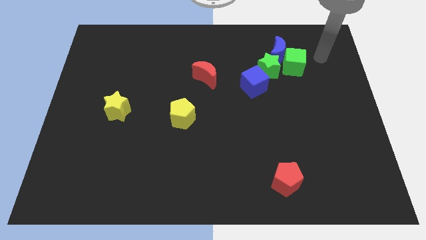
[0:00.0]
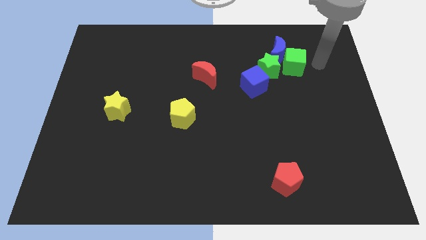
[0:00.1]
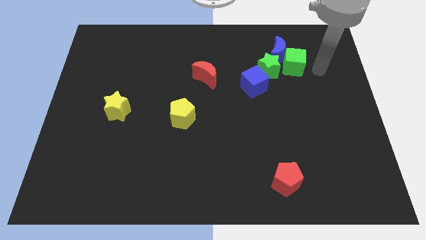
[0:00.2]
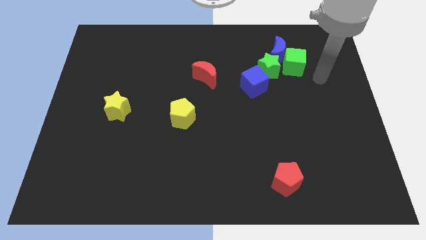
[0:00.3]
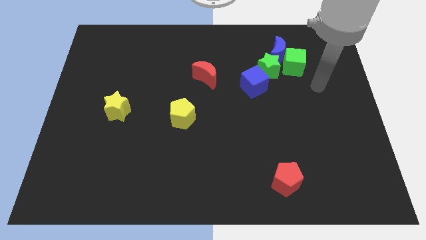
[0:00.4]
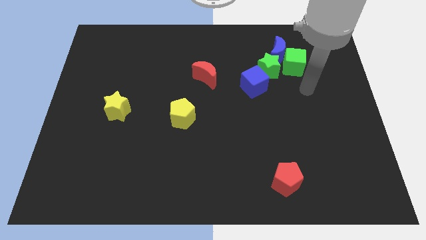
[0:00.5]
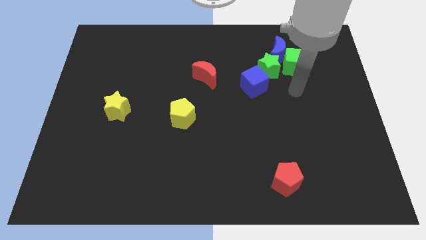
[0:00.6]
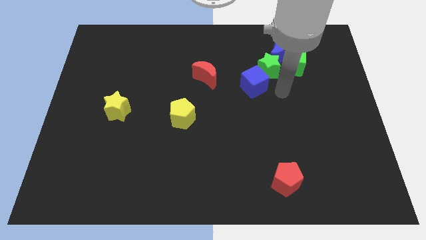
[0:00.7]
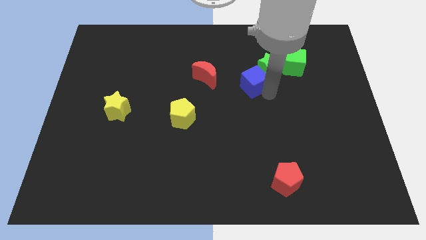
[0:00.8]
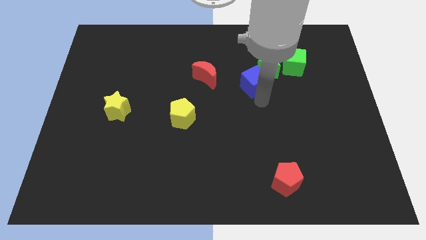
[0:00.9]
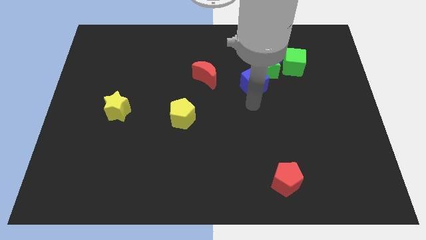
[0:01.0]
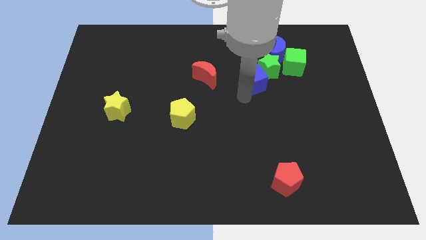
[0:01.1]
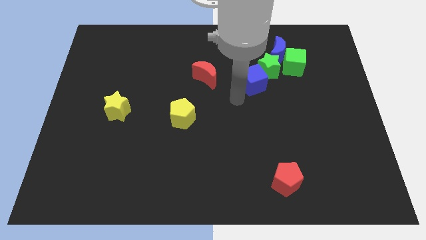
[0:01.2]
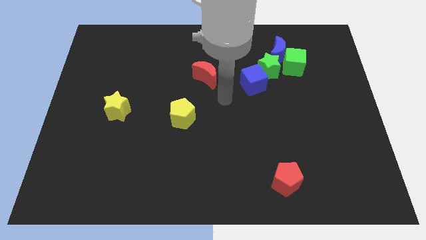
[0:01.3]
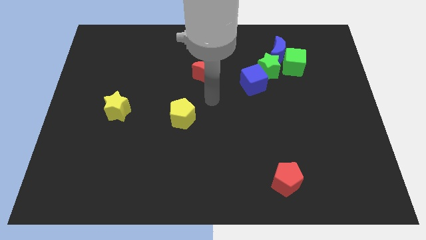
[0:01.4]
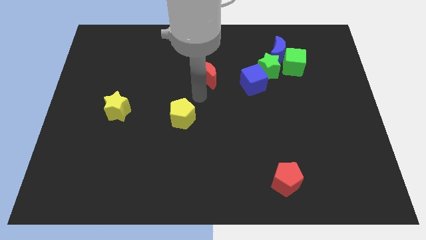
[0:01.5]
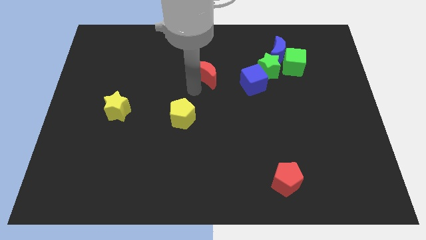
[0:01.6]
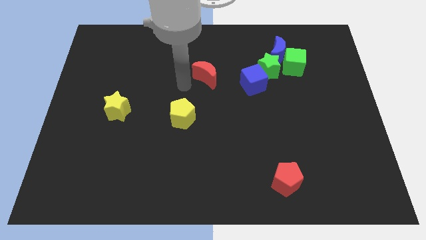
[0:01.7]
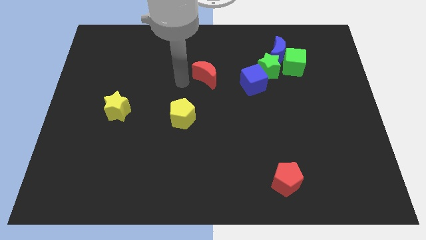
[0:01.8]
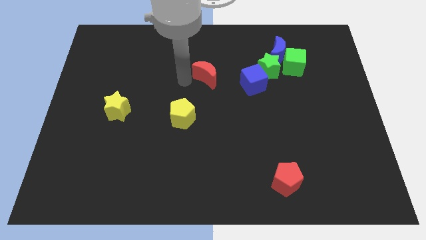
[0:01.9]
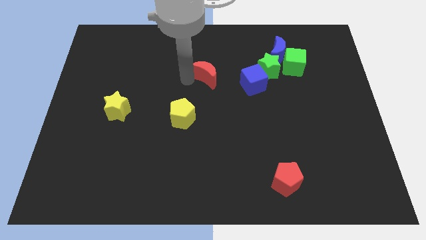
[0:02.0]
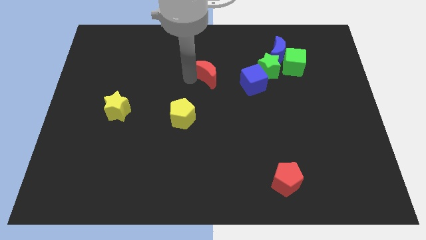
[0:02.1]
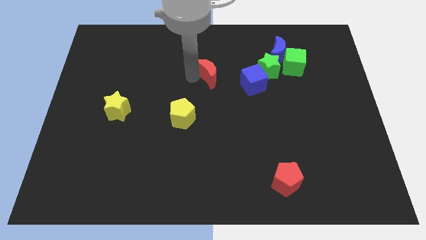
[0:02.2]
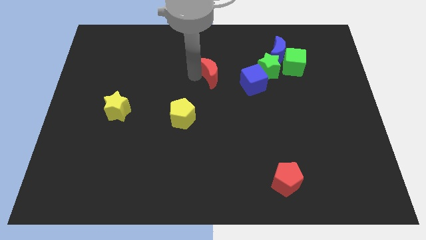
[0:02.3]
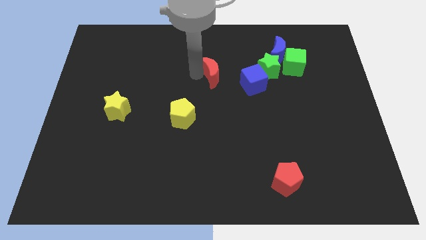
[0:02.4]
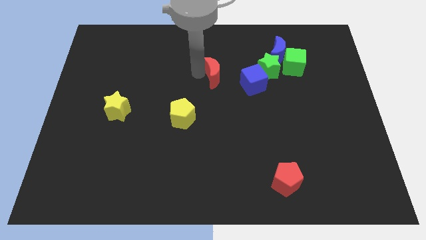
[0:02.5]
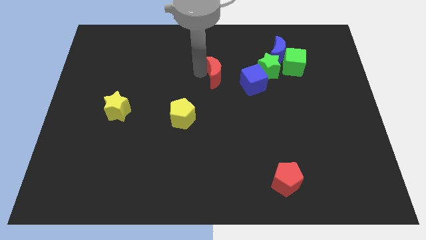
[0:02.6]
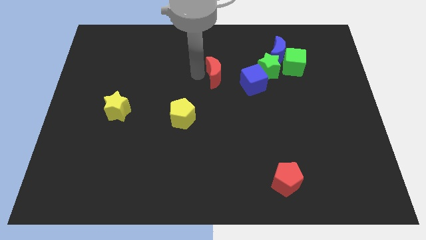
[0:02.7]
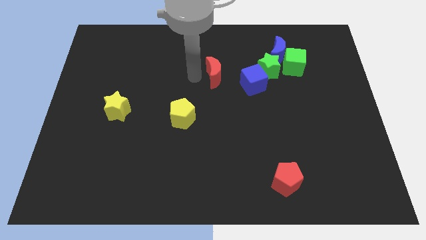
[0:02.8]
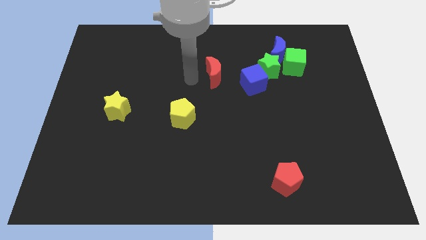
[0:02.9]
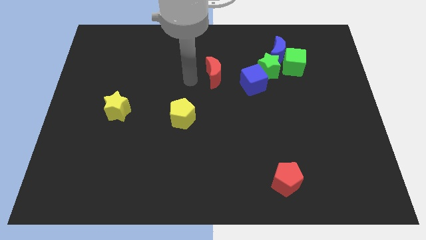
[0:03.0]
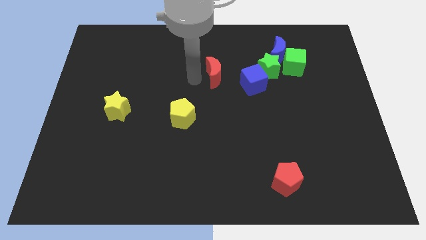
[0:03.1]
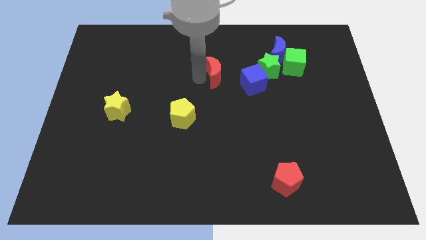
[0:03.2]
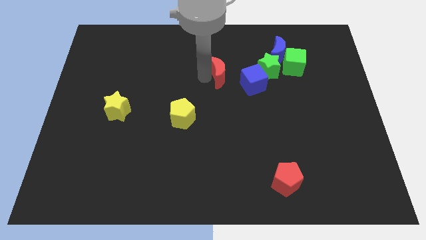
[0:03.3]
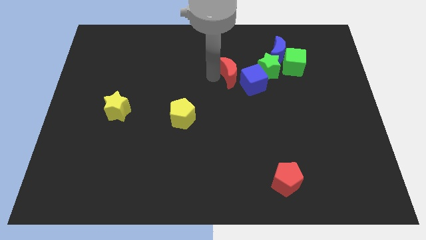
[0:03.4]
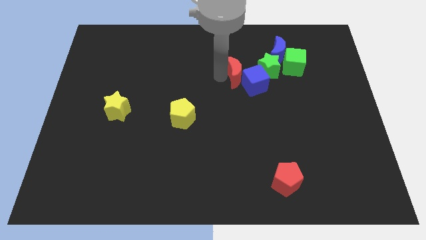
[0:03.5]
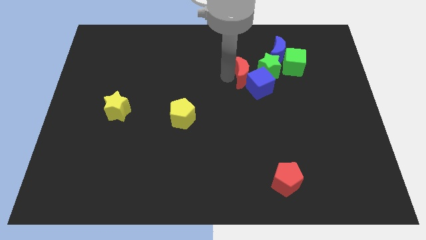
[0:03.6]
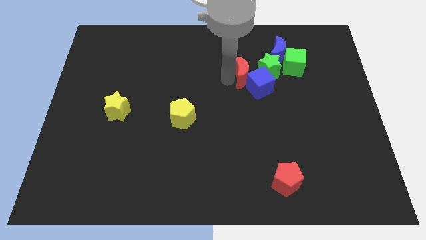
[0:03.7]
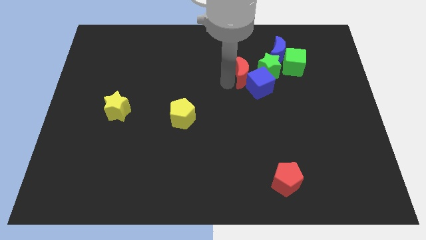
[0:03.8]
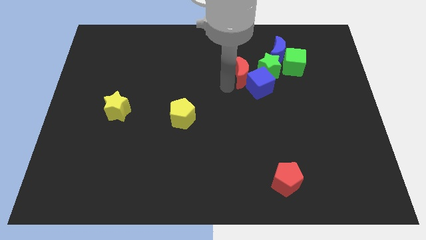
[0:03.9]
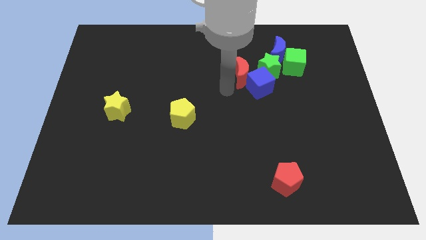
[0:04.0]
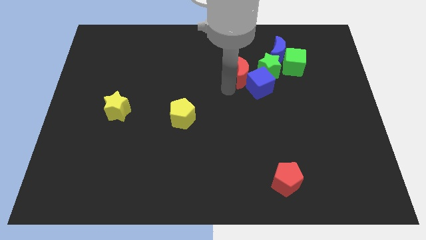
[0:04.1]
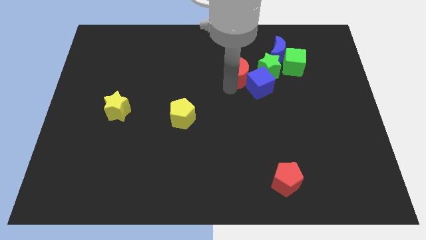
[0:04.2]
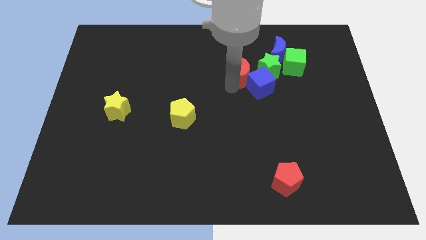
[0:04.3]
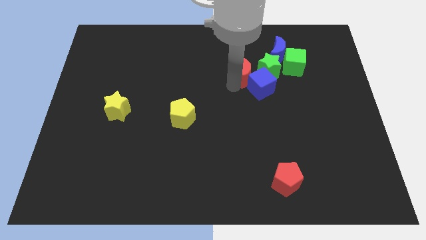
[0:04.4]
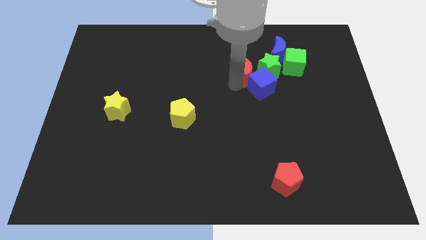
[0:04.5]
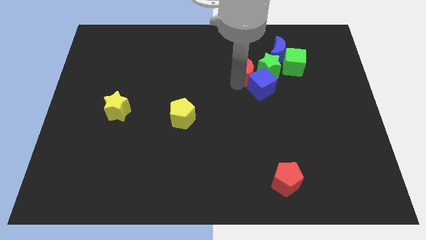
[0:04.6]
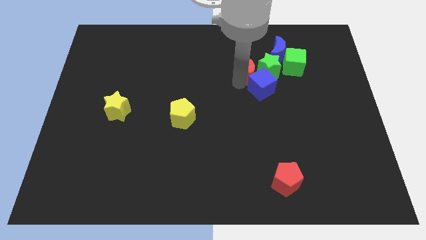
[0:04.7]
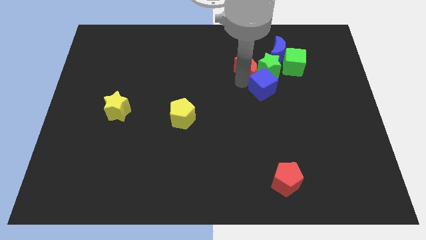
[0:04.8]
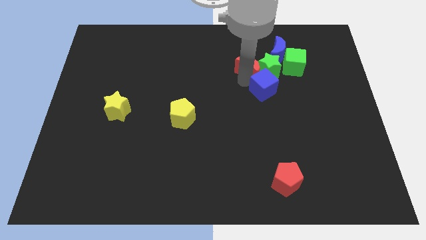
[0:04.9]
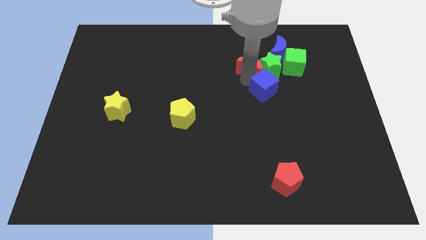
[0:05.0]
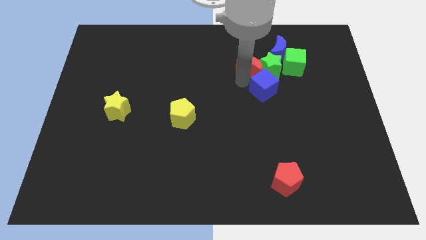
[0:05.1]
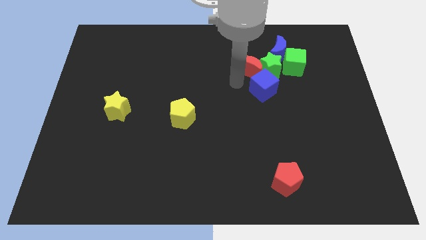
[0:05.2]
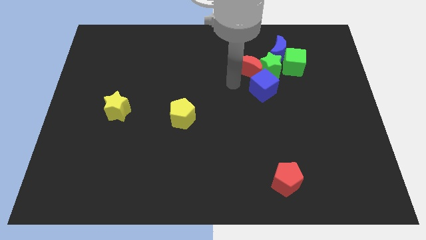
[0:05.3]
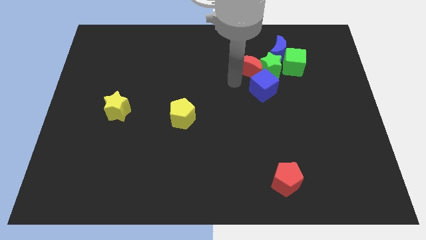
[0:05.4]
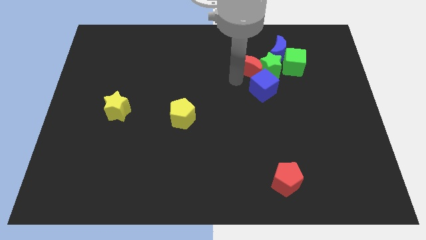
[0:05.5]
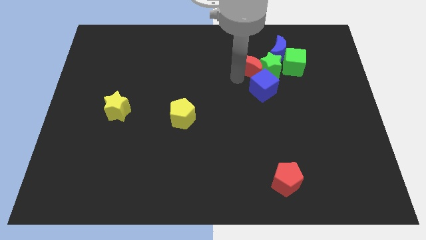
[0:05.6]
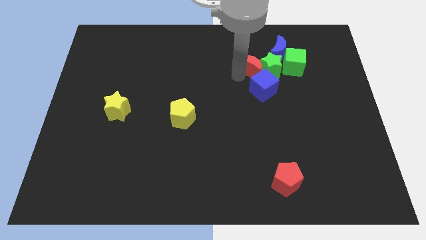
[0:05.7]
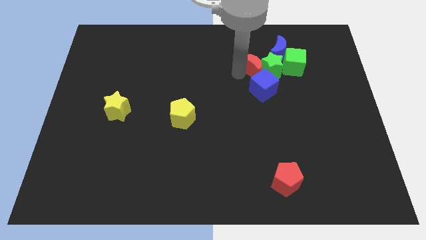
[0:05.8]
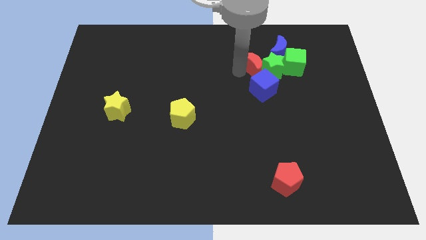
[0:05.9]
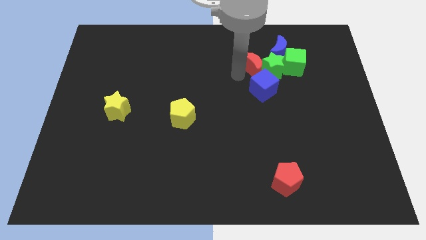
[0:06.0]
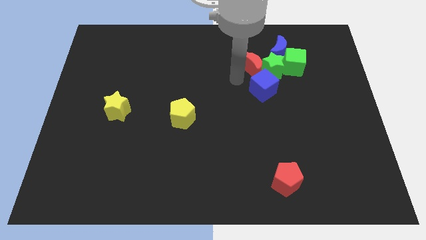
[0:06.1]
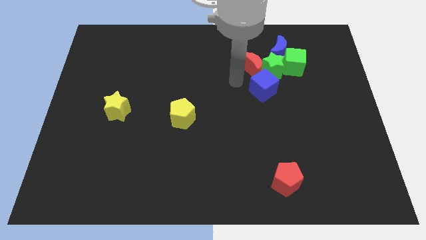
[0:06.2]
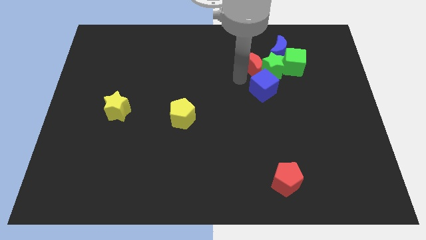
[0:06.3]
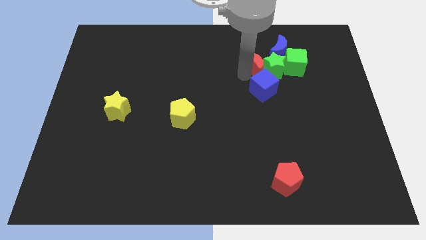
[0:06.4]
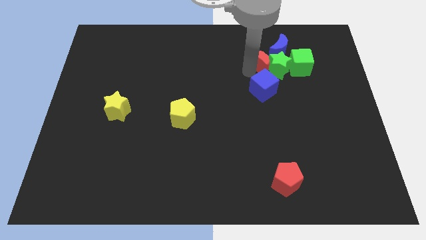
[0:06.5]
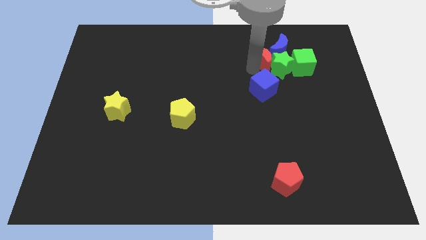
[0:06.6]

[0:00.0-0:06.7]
put the red moon close to the blue moon

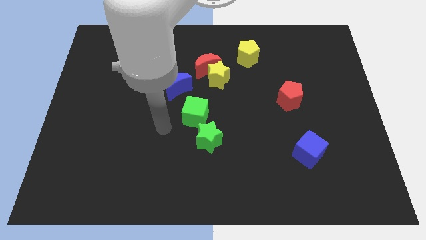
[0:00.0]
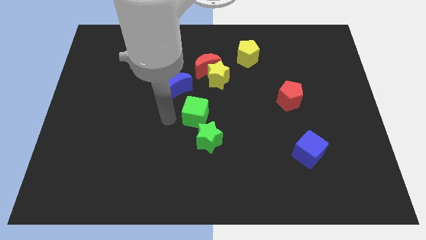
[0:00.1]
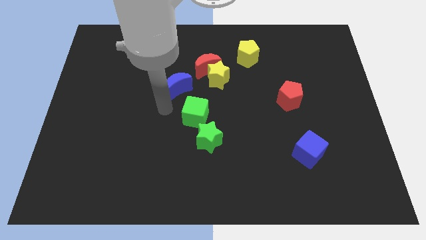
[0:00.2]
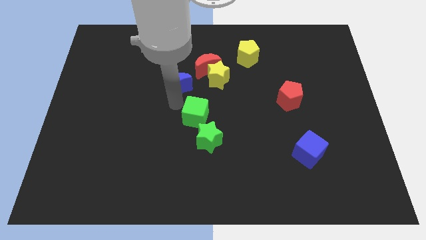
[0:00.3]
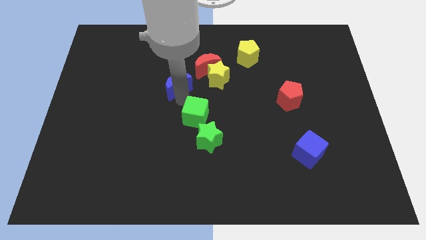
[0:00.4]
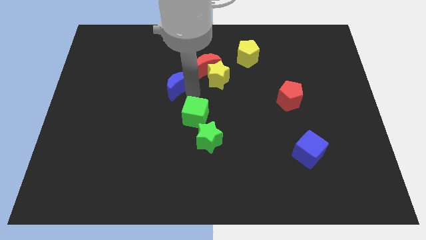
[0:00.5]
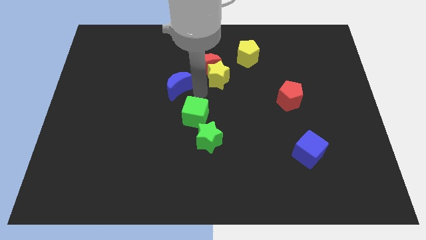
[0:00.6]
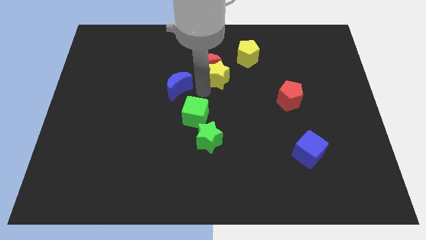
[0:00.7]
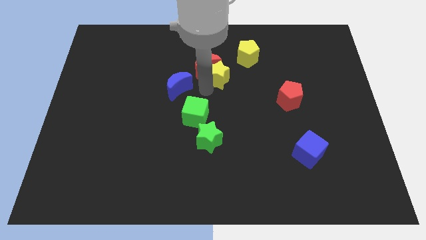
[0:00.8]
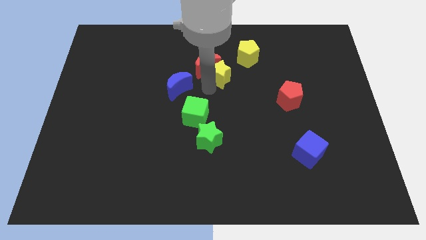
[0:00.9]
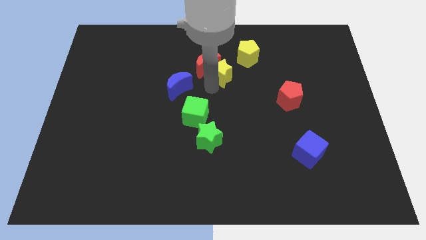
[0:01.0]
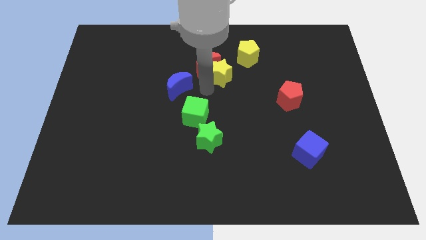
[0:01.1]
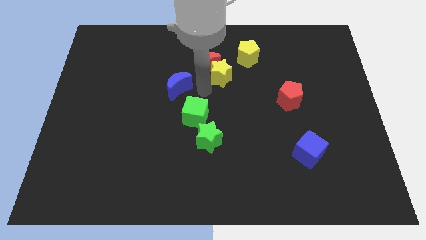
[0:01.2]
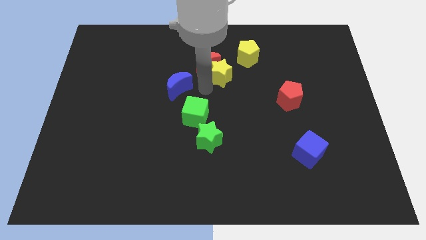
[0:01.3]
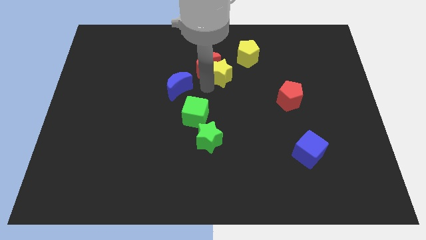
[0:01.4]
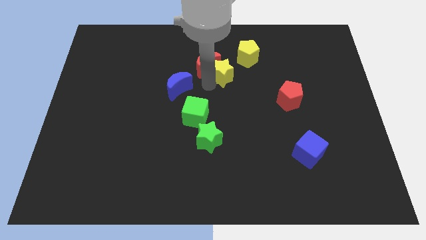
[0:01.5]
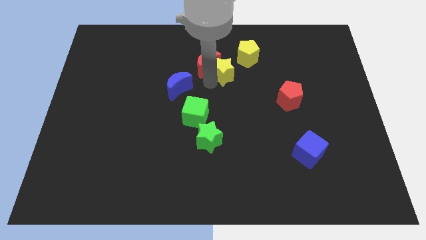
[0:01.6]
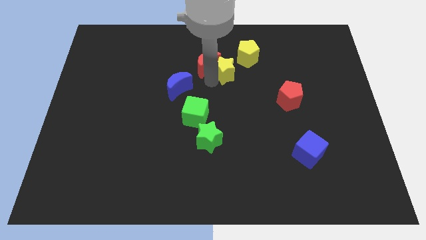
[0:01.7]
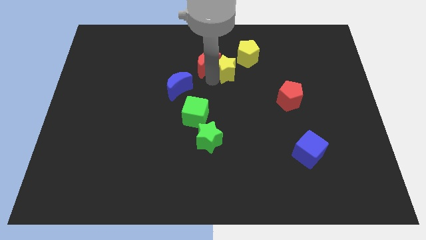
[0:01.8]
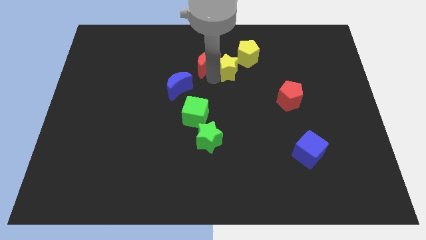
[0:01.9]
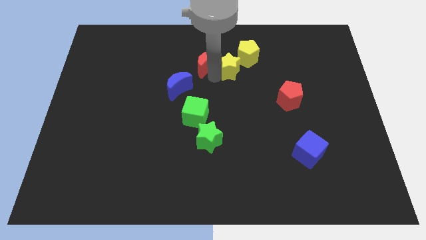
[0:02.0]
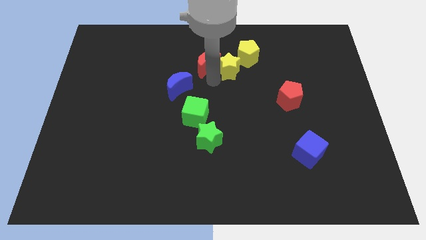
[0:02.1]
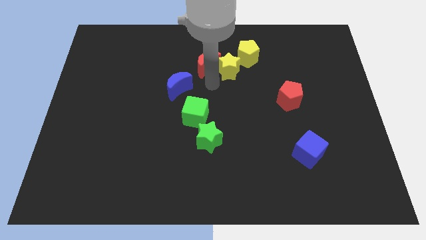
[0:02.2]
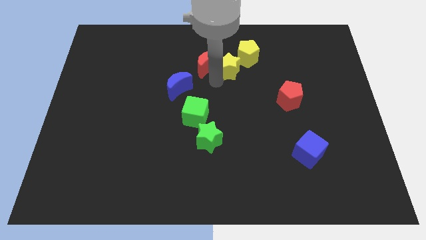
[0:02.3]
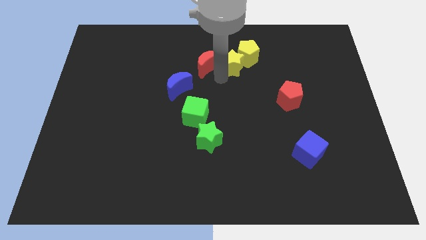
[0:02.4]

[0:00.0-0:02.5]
push the yellow star next to the yellow pentagon
